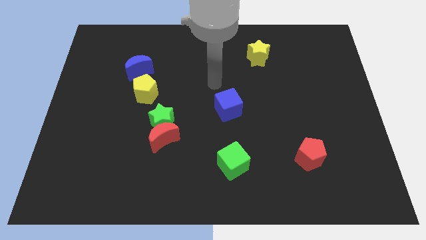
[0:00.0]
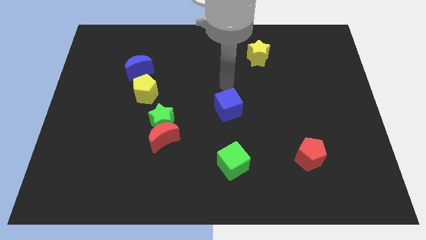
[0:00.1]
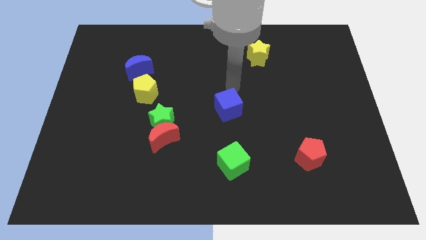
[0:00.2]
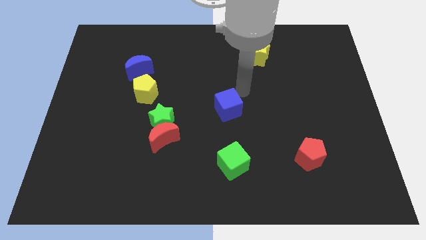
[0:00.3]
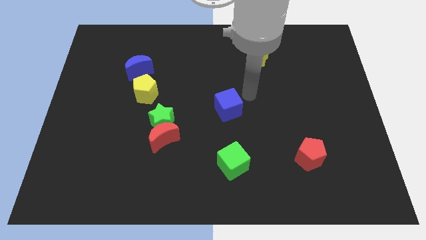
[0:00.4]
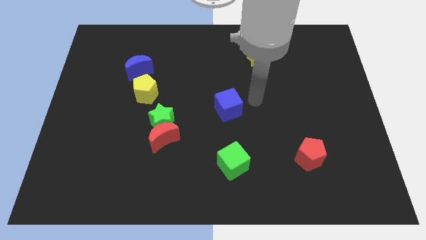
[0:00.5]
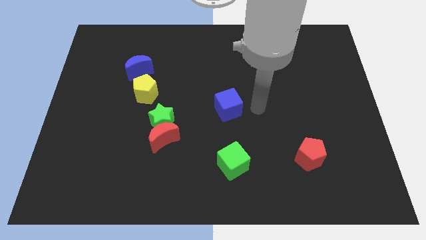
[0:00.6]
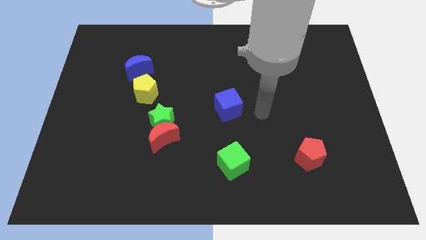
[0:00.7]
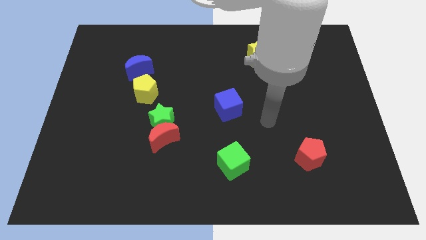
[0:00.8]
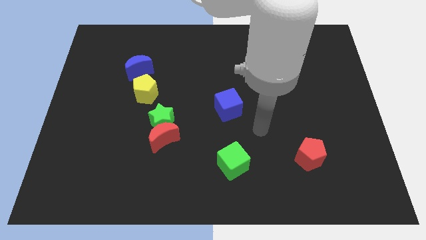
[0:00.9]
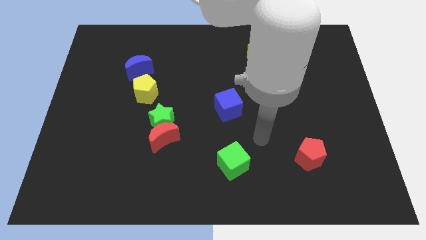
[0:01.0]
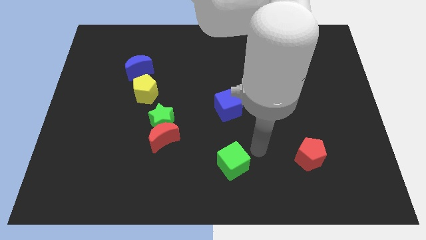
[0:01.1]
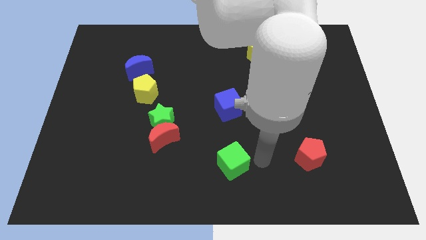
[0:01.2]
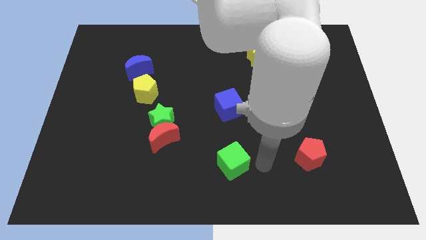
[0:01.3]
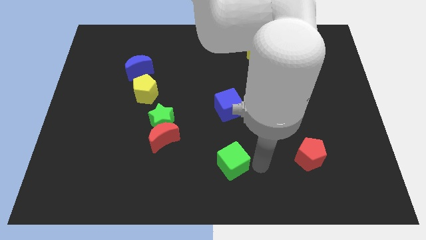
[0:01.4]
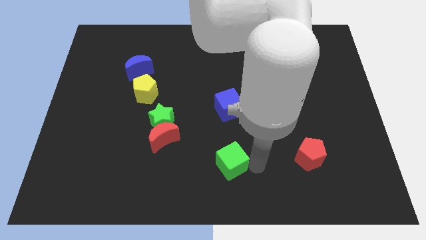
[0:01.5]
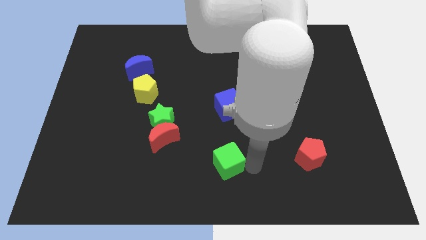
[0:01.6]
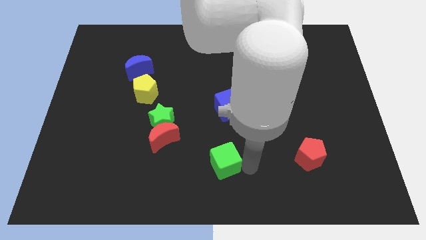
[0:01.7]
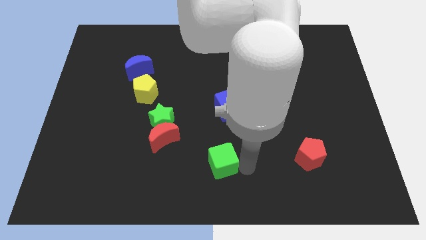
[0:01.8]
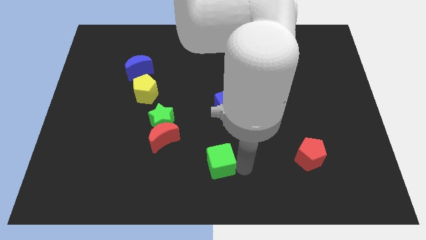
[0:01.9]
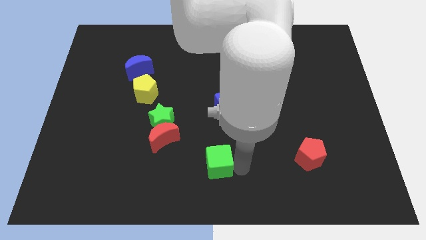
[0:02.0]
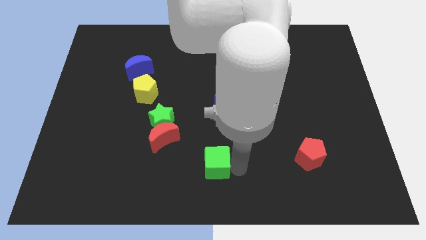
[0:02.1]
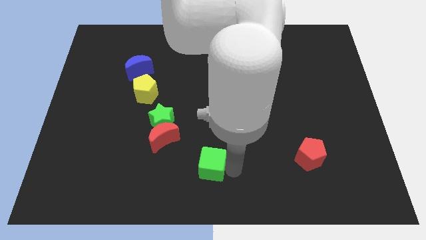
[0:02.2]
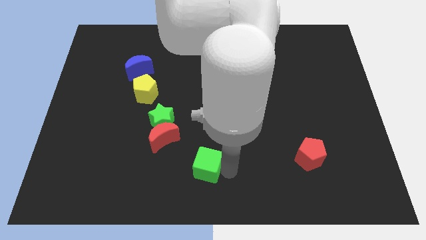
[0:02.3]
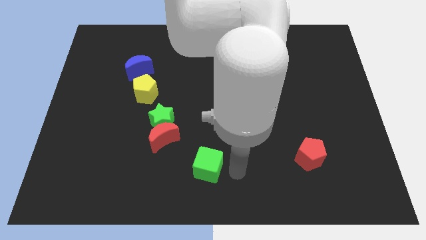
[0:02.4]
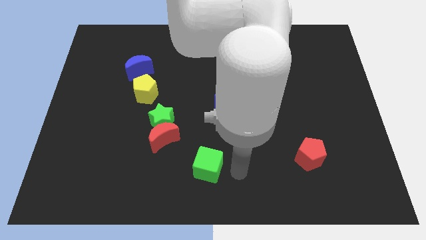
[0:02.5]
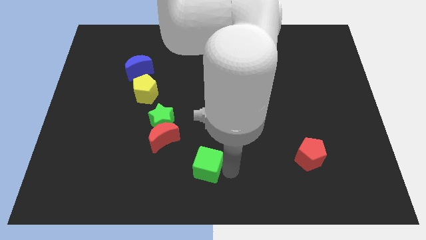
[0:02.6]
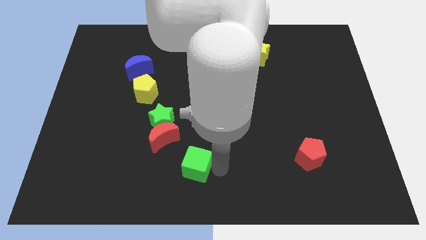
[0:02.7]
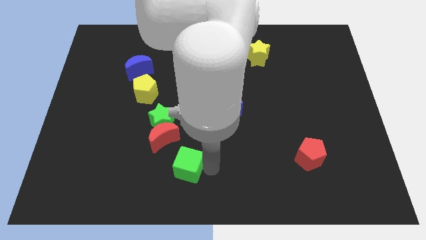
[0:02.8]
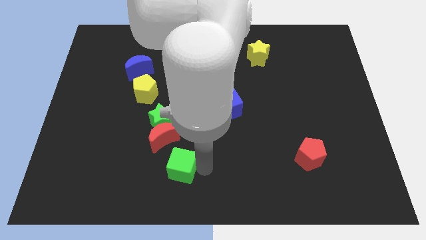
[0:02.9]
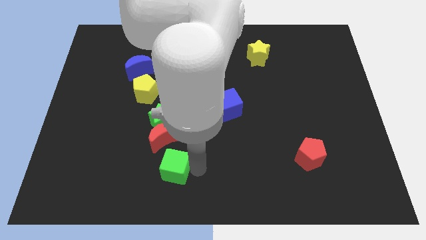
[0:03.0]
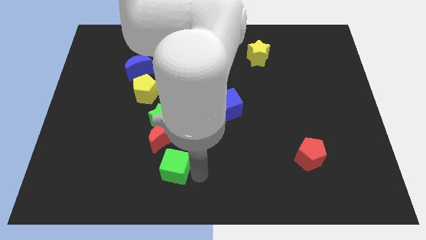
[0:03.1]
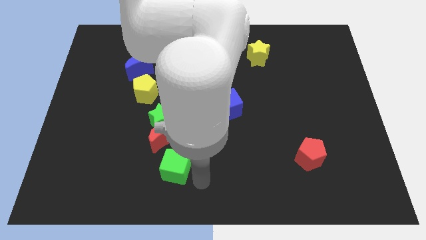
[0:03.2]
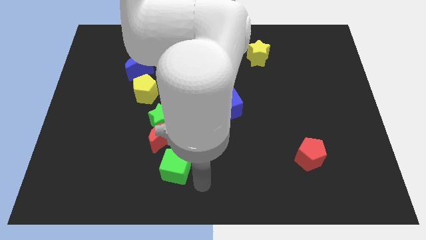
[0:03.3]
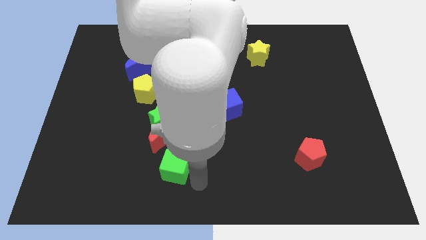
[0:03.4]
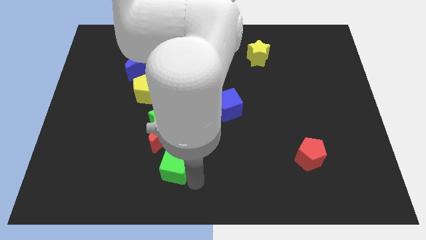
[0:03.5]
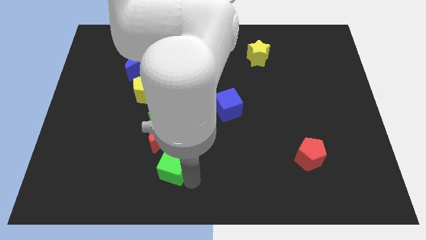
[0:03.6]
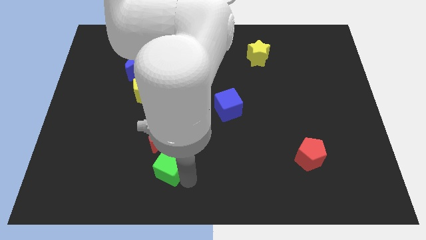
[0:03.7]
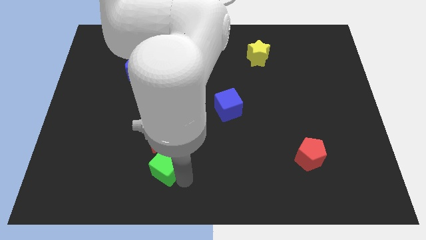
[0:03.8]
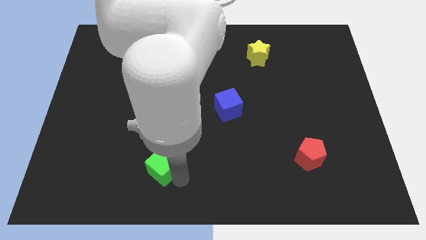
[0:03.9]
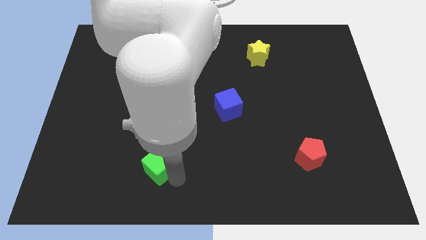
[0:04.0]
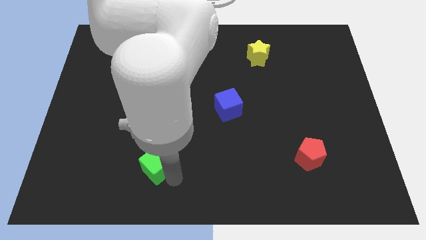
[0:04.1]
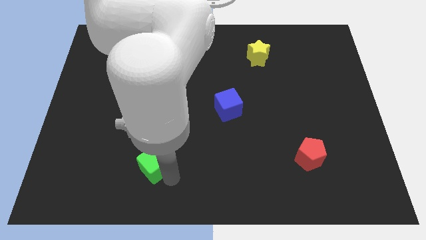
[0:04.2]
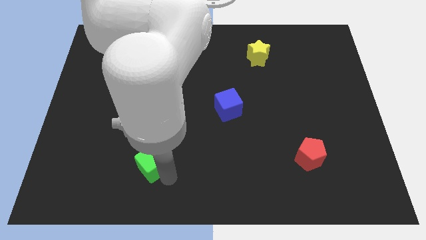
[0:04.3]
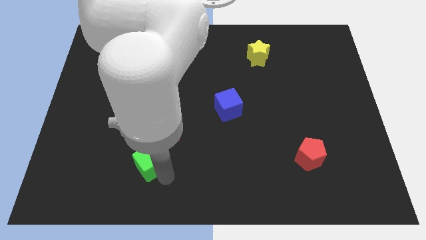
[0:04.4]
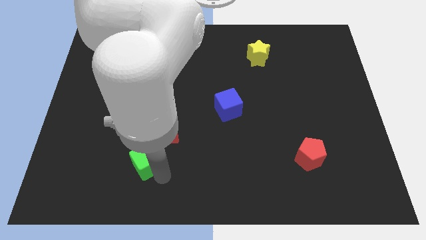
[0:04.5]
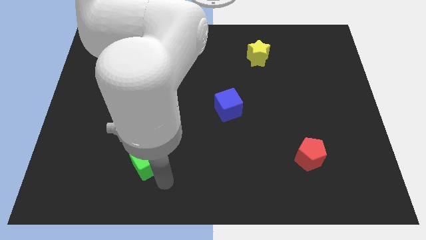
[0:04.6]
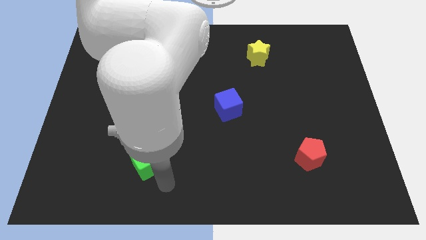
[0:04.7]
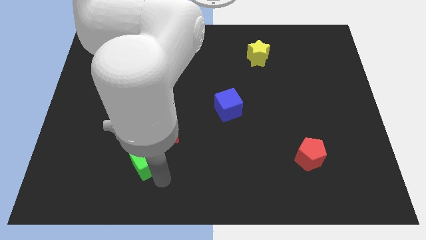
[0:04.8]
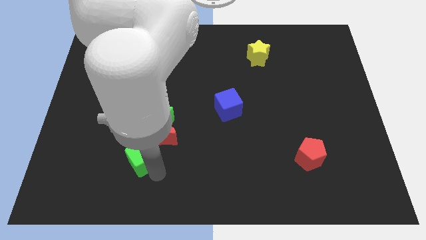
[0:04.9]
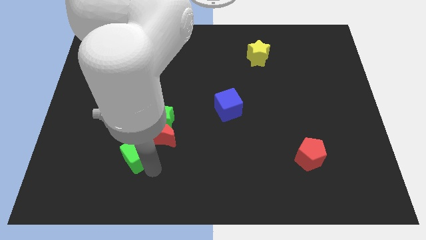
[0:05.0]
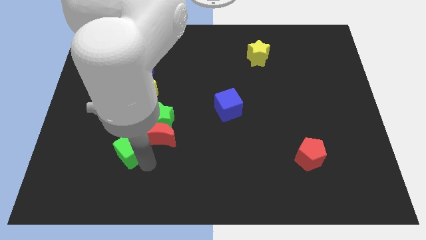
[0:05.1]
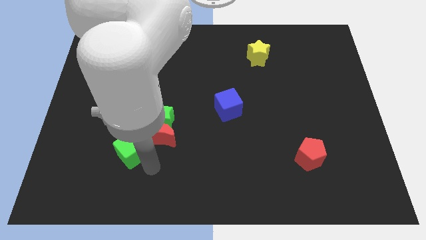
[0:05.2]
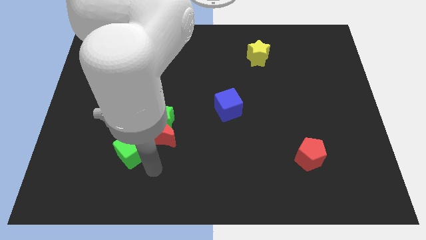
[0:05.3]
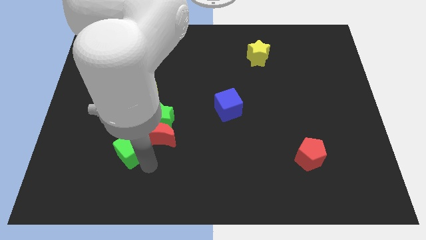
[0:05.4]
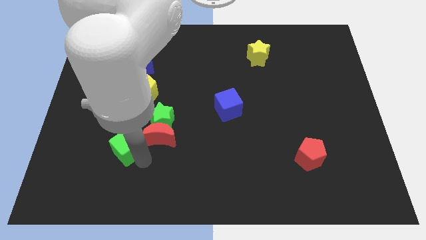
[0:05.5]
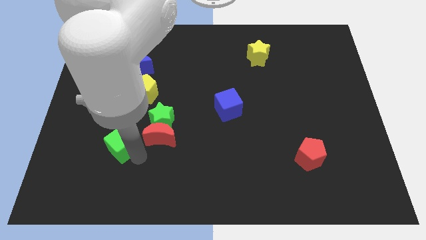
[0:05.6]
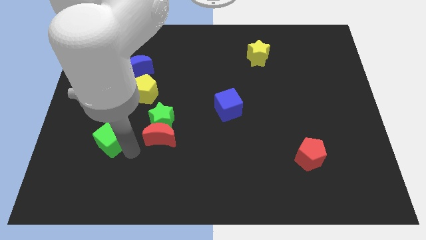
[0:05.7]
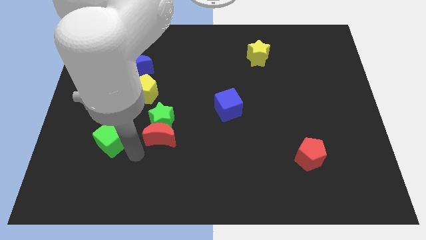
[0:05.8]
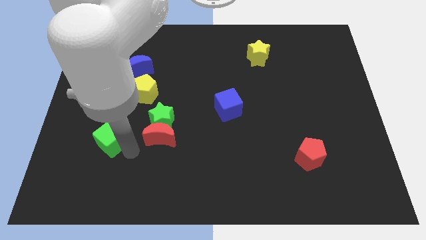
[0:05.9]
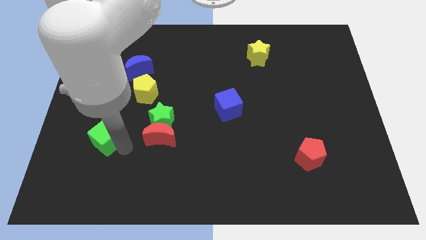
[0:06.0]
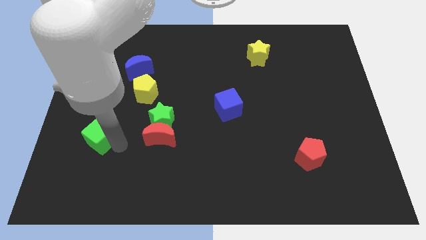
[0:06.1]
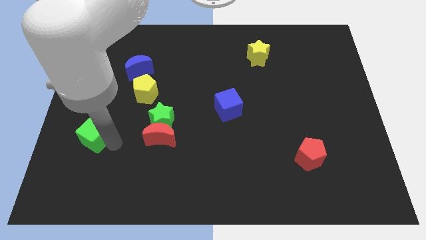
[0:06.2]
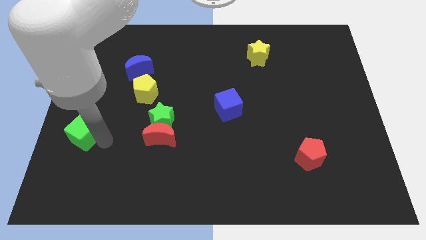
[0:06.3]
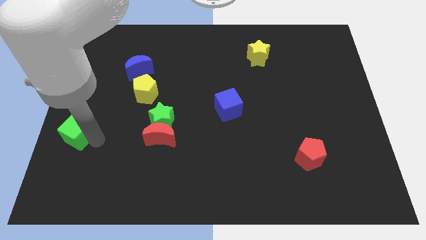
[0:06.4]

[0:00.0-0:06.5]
move the green cube to the center left
